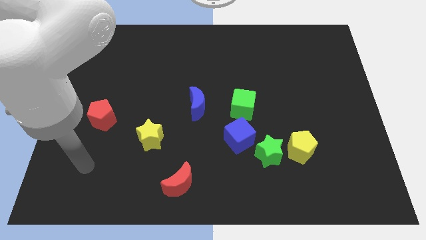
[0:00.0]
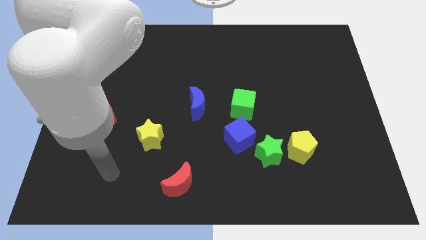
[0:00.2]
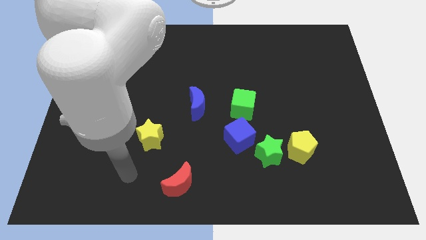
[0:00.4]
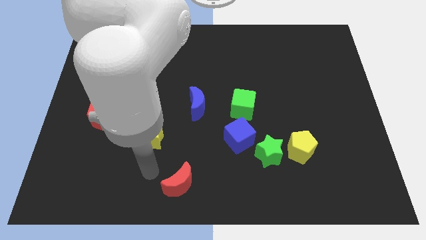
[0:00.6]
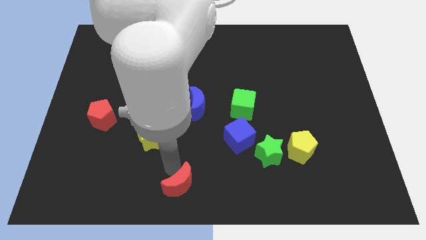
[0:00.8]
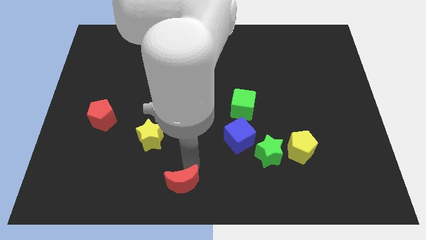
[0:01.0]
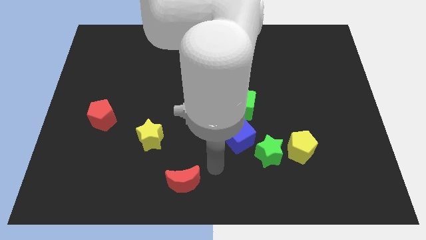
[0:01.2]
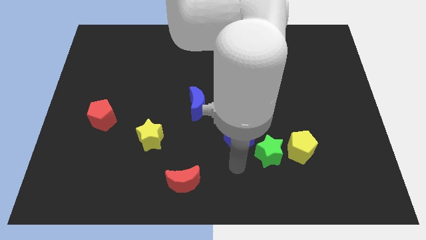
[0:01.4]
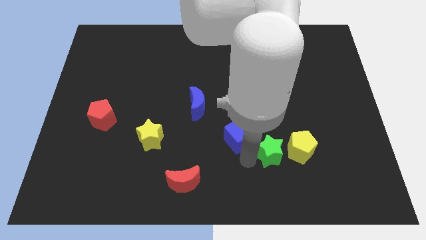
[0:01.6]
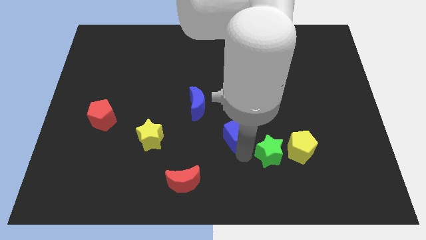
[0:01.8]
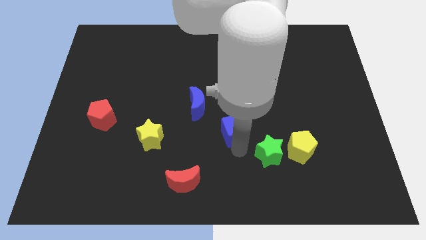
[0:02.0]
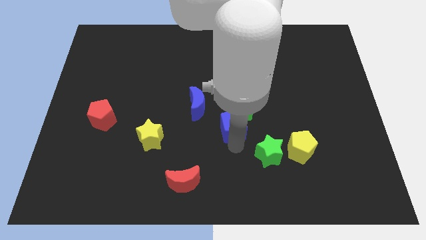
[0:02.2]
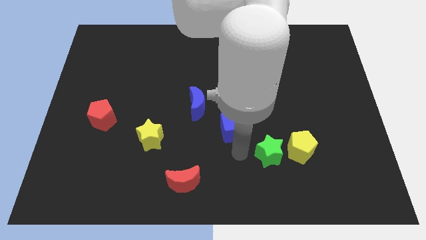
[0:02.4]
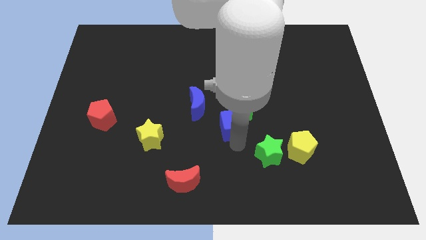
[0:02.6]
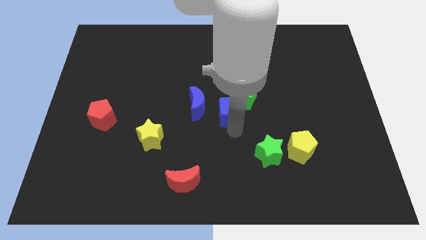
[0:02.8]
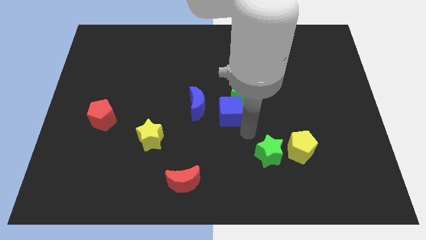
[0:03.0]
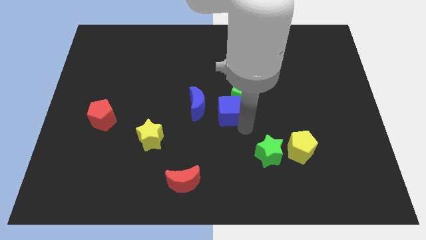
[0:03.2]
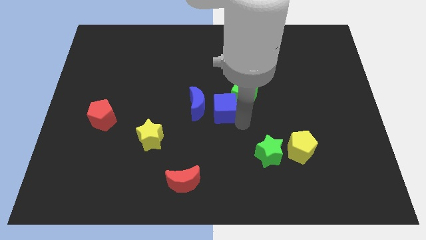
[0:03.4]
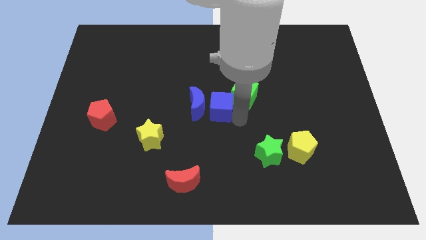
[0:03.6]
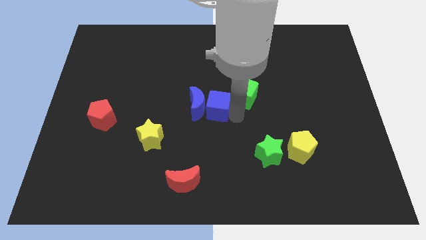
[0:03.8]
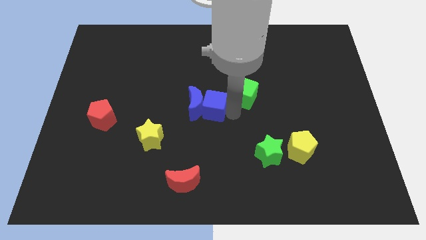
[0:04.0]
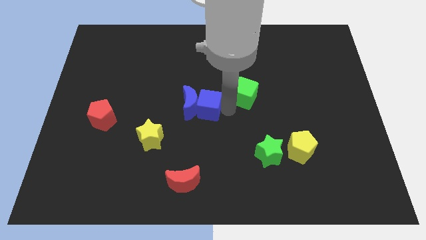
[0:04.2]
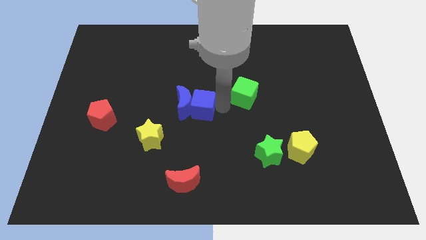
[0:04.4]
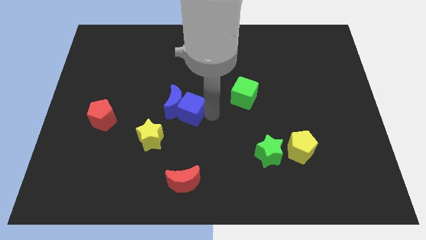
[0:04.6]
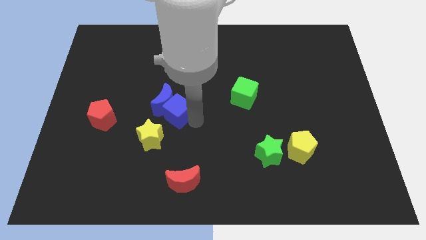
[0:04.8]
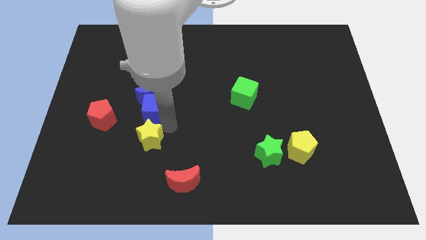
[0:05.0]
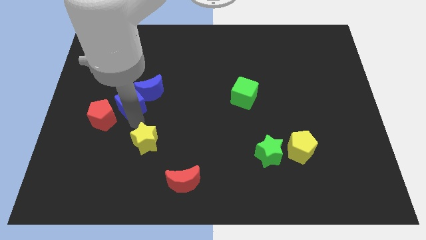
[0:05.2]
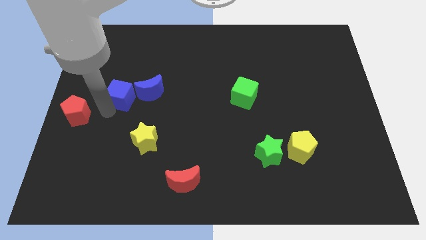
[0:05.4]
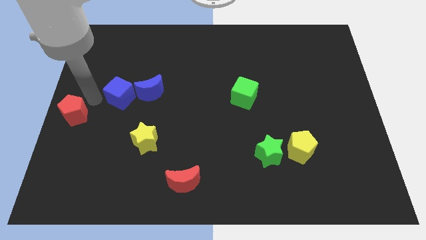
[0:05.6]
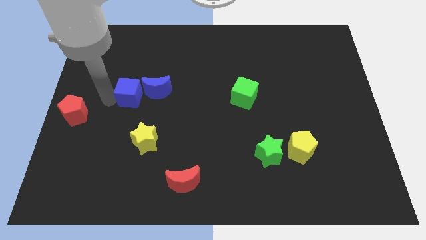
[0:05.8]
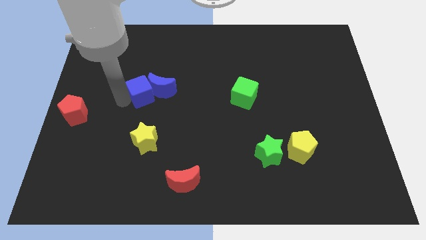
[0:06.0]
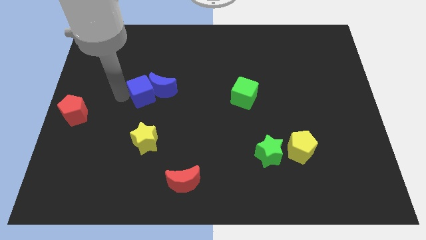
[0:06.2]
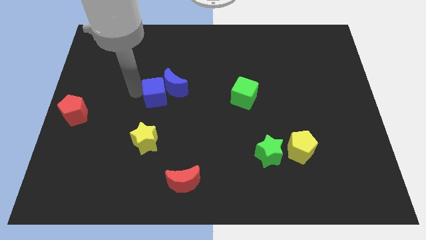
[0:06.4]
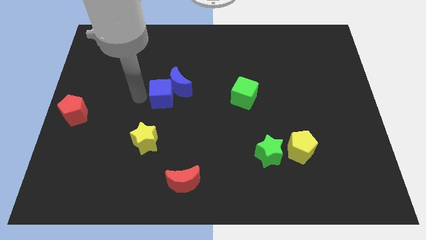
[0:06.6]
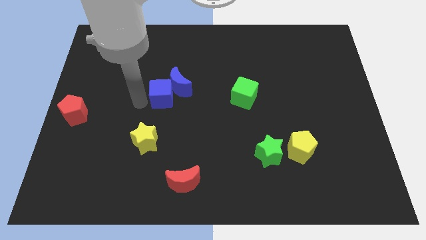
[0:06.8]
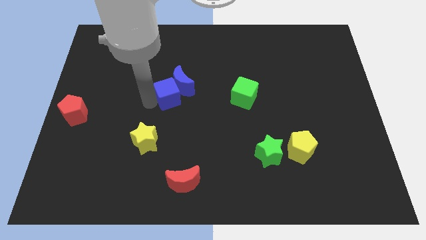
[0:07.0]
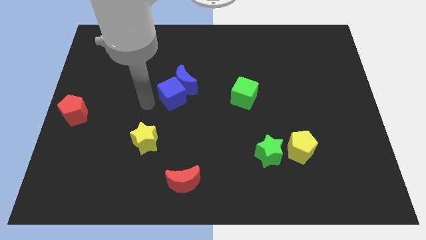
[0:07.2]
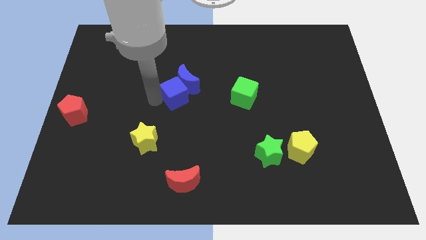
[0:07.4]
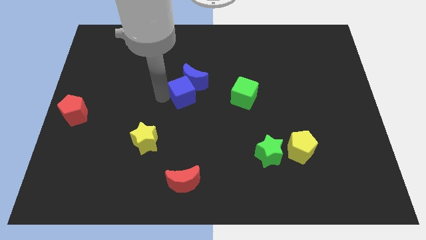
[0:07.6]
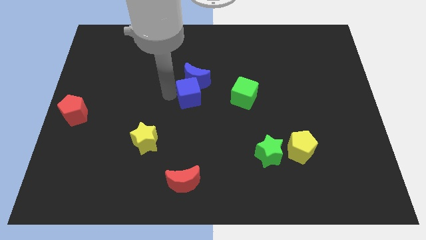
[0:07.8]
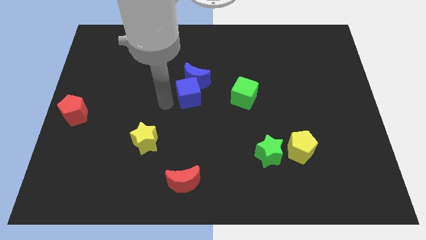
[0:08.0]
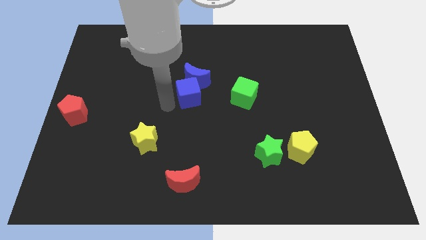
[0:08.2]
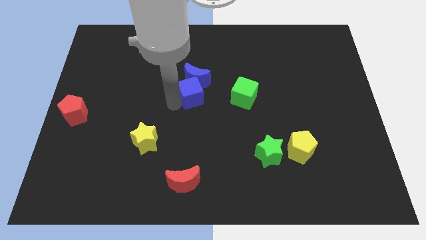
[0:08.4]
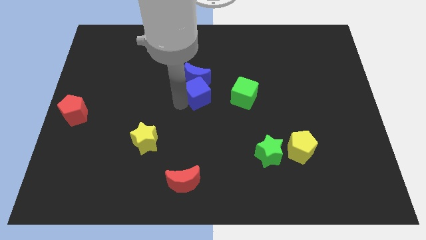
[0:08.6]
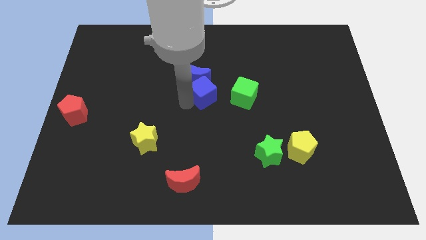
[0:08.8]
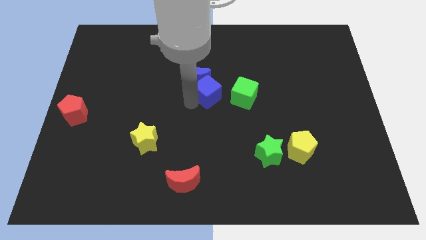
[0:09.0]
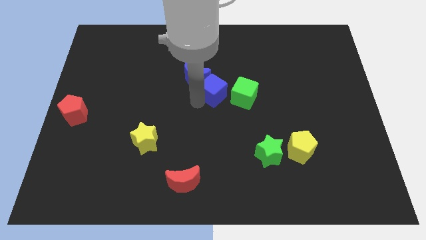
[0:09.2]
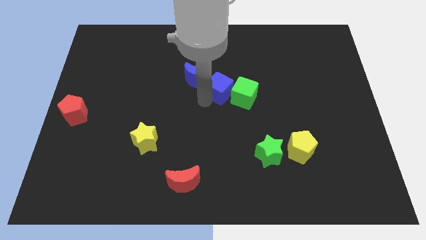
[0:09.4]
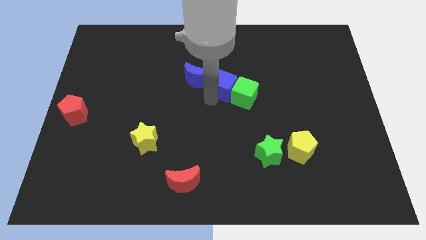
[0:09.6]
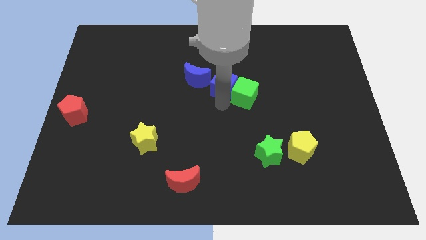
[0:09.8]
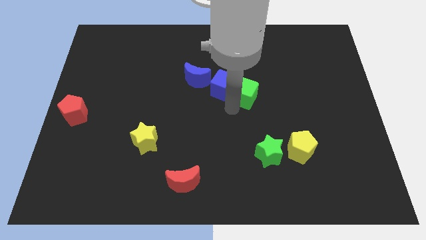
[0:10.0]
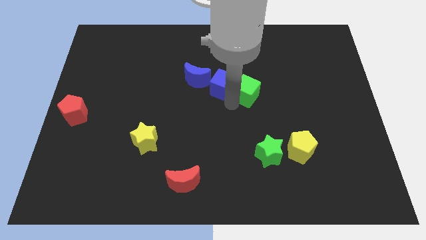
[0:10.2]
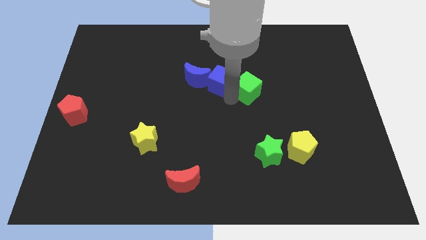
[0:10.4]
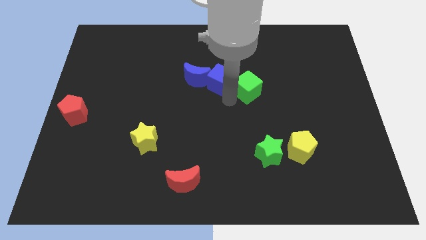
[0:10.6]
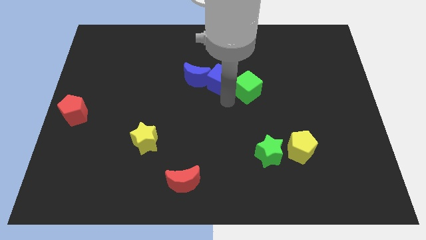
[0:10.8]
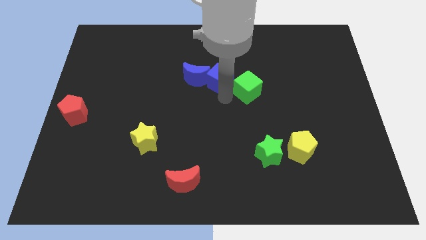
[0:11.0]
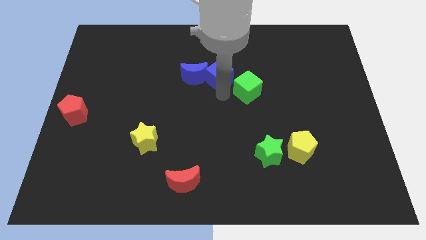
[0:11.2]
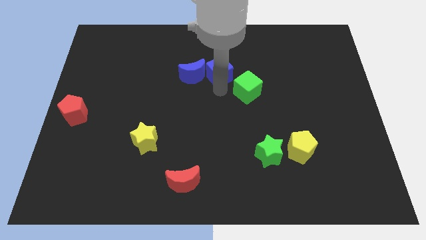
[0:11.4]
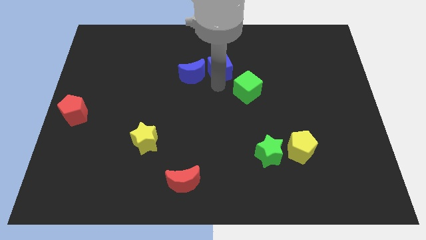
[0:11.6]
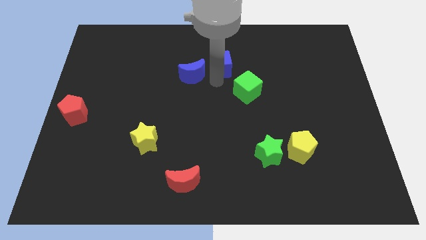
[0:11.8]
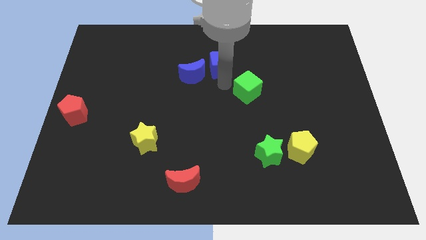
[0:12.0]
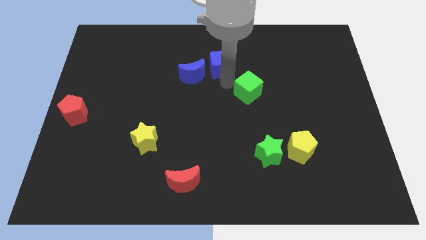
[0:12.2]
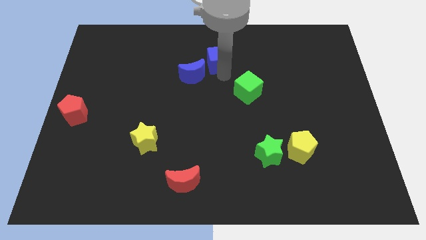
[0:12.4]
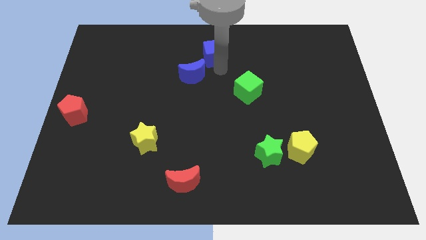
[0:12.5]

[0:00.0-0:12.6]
put the blue cube to the top side

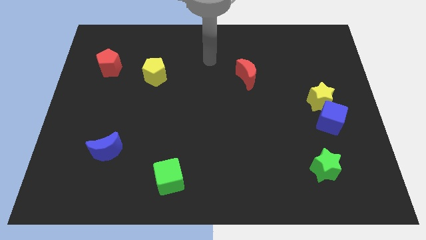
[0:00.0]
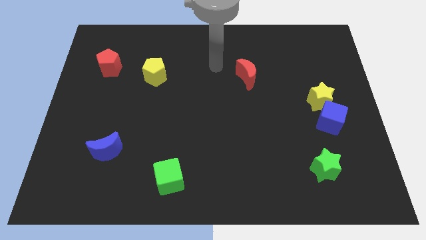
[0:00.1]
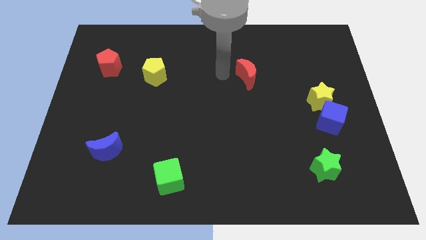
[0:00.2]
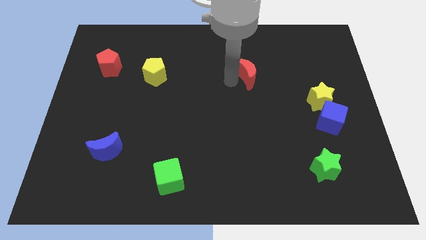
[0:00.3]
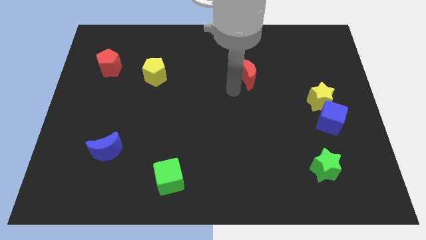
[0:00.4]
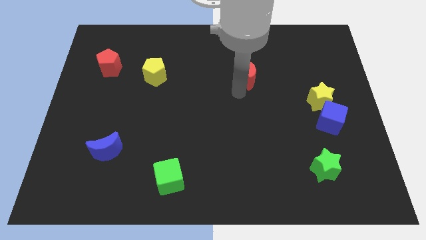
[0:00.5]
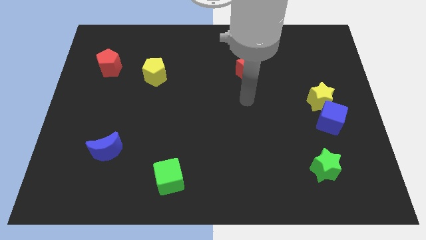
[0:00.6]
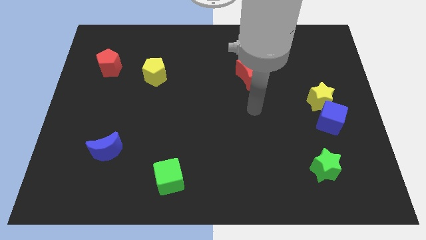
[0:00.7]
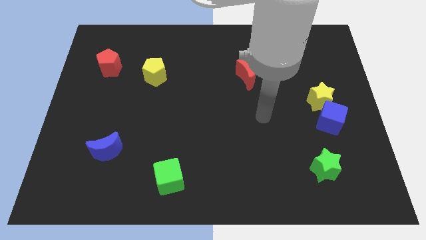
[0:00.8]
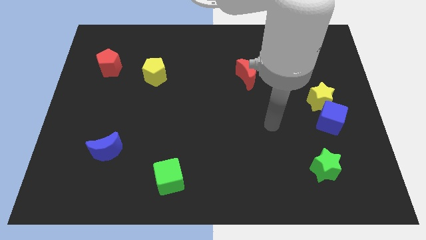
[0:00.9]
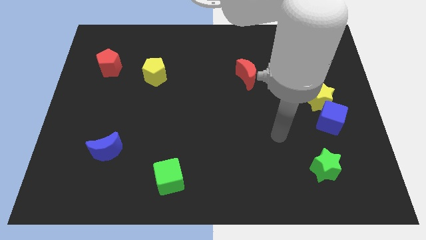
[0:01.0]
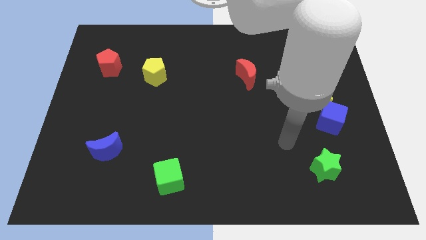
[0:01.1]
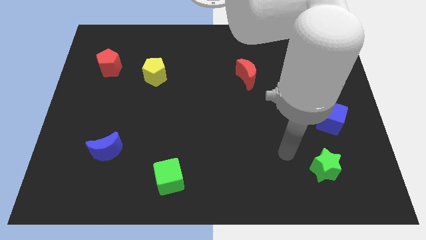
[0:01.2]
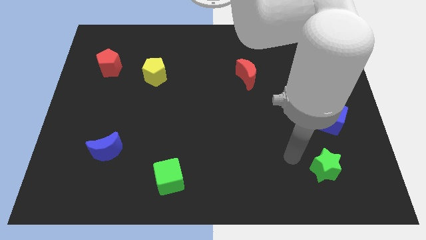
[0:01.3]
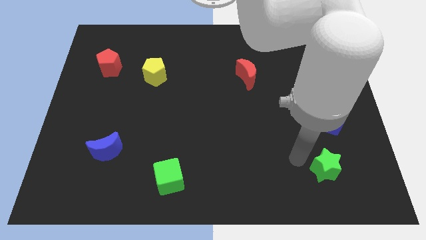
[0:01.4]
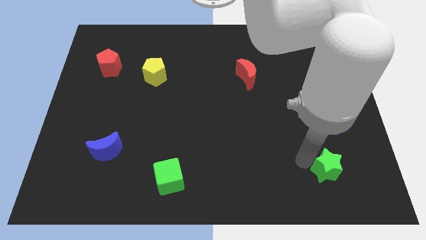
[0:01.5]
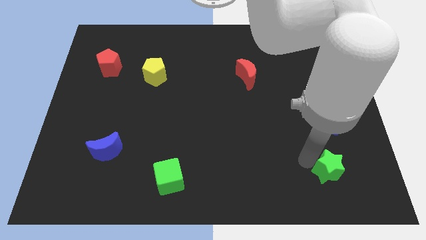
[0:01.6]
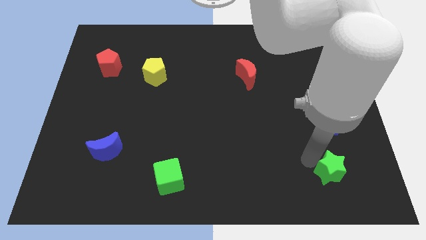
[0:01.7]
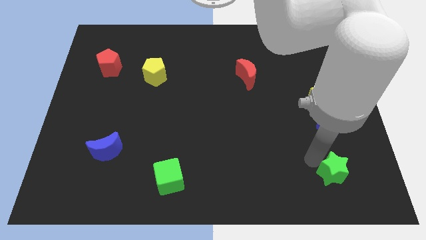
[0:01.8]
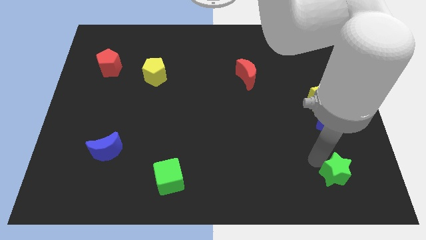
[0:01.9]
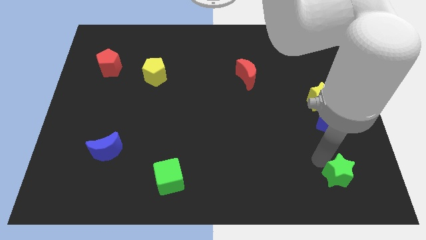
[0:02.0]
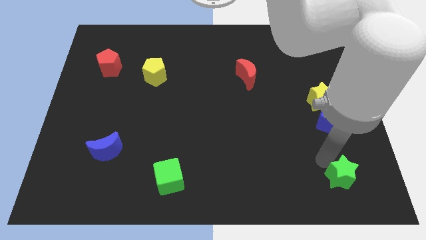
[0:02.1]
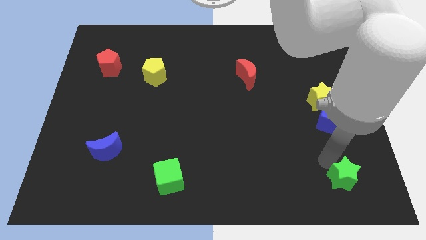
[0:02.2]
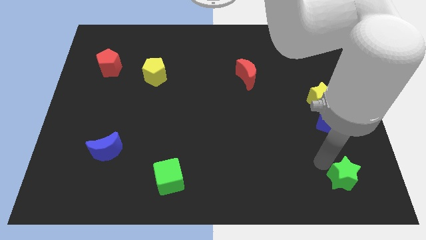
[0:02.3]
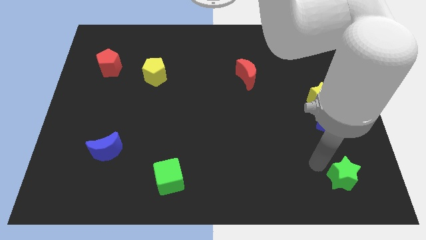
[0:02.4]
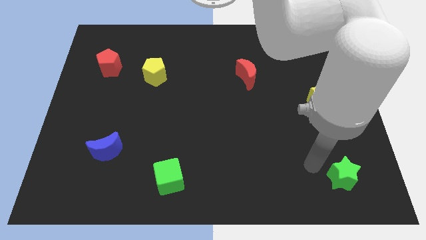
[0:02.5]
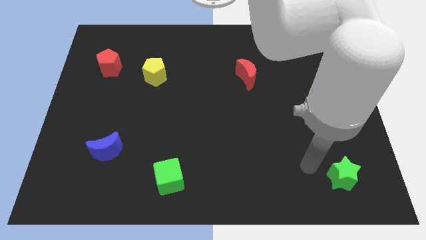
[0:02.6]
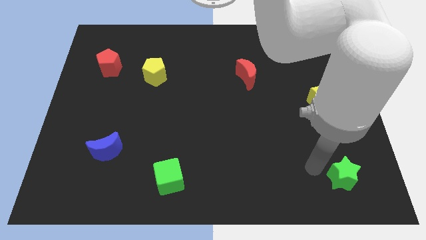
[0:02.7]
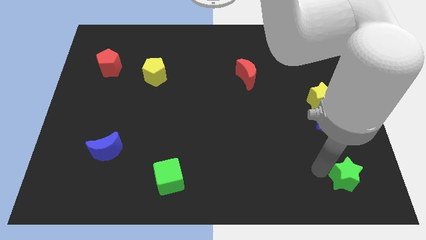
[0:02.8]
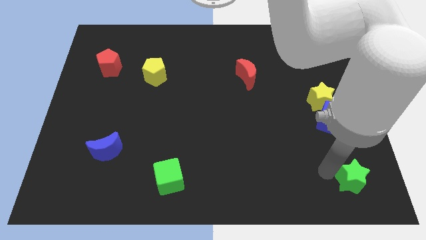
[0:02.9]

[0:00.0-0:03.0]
slide the green star to the bottom right of the board
